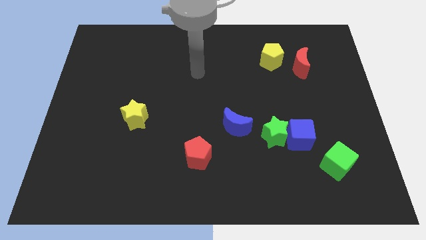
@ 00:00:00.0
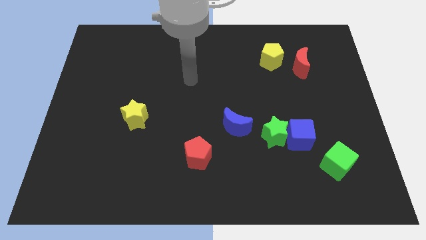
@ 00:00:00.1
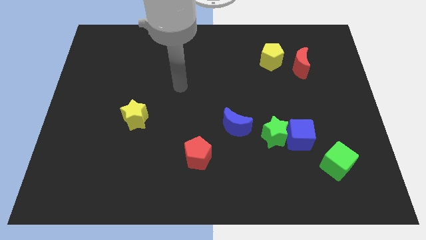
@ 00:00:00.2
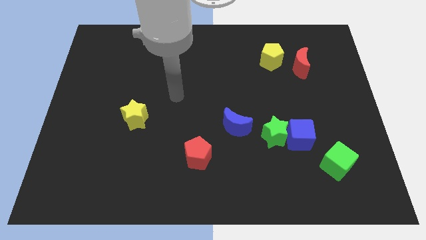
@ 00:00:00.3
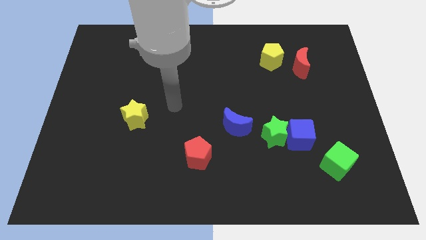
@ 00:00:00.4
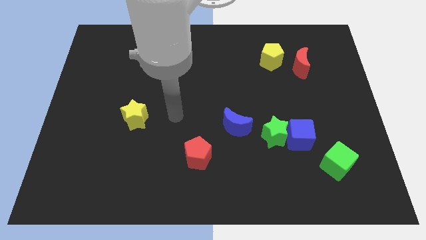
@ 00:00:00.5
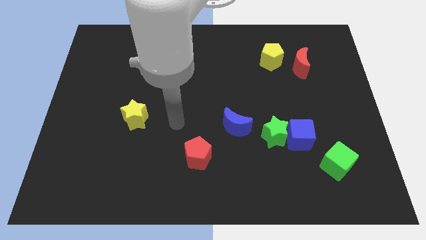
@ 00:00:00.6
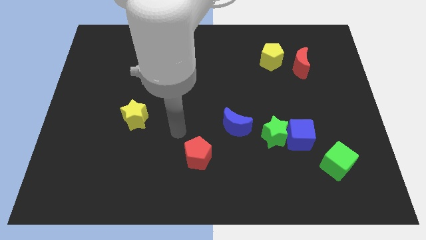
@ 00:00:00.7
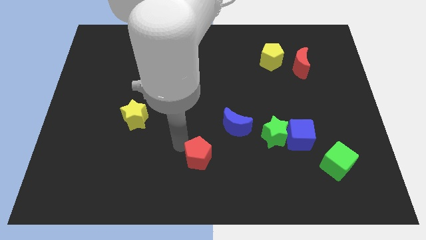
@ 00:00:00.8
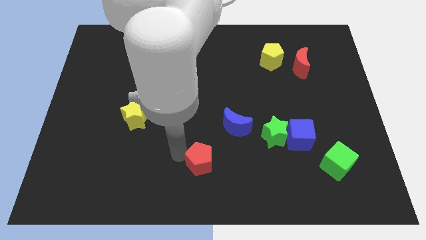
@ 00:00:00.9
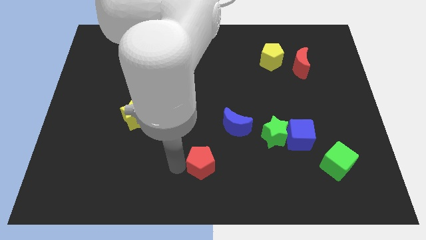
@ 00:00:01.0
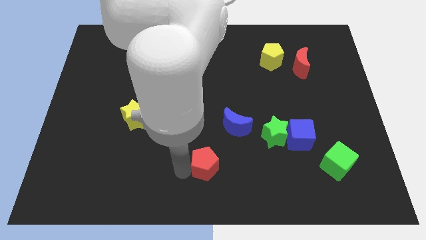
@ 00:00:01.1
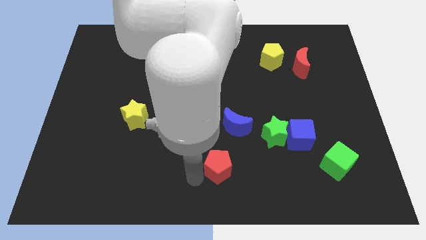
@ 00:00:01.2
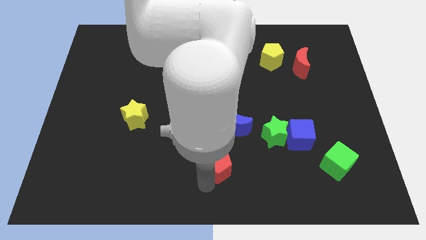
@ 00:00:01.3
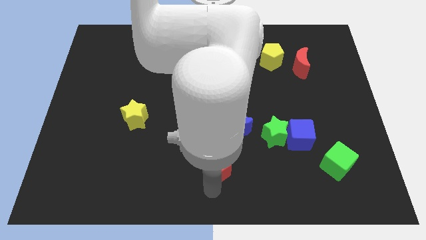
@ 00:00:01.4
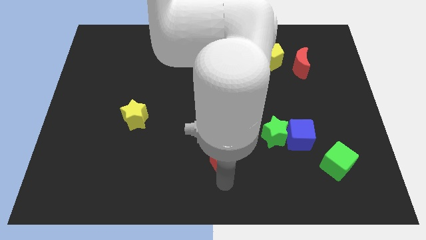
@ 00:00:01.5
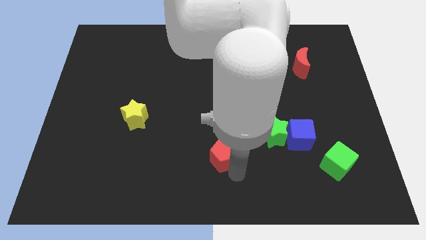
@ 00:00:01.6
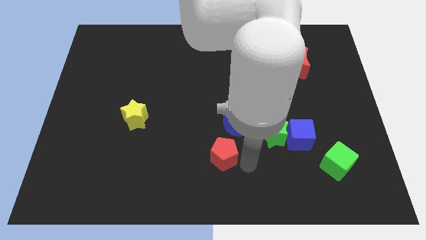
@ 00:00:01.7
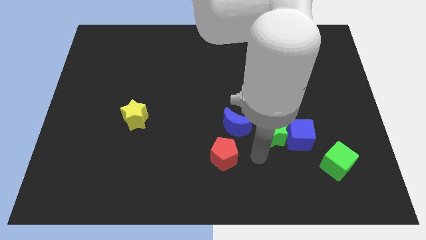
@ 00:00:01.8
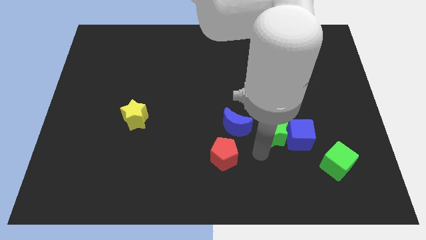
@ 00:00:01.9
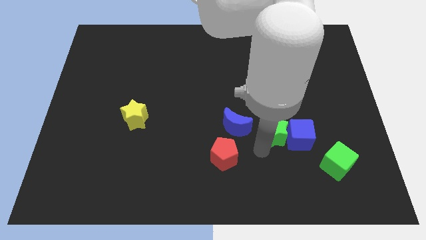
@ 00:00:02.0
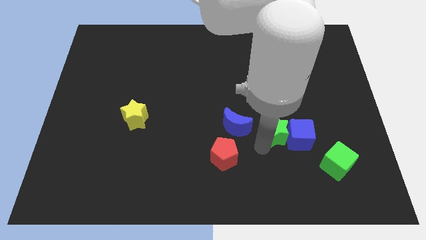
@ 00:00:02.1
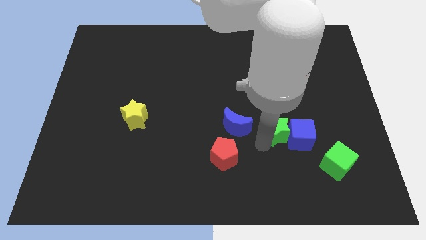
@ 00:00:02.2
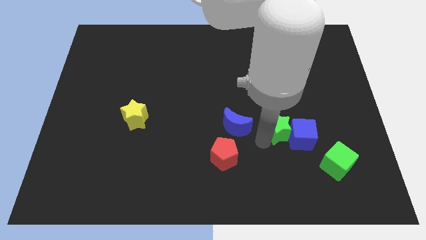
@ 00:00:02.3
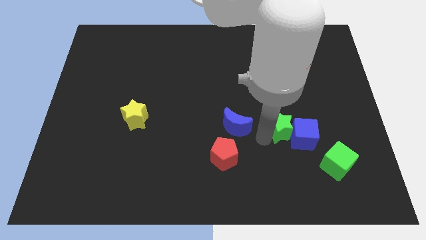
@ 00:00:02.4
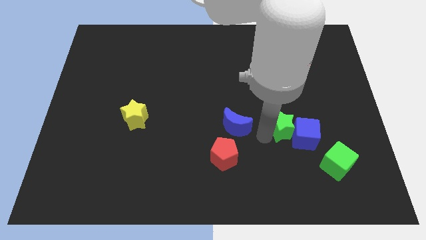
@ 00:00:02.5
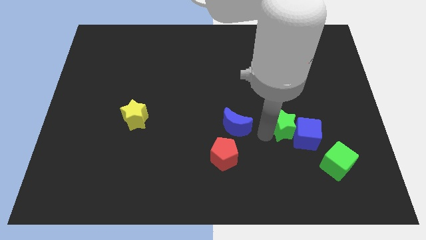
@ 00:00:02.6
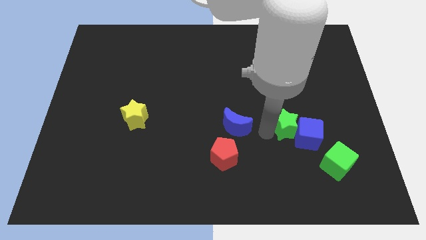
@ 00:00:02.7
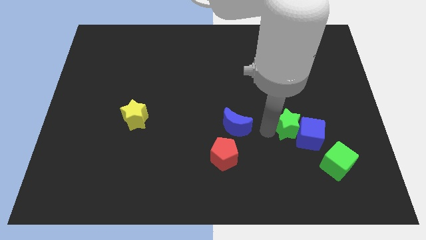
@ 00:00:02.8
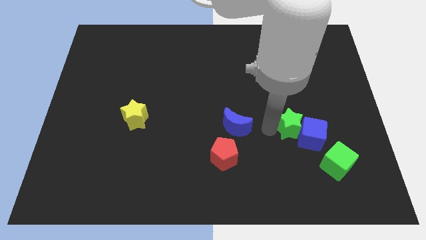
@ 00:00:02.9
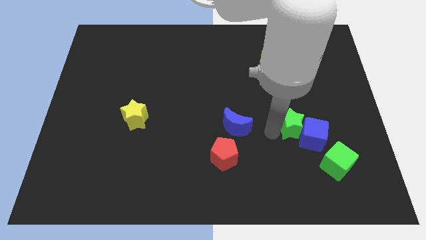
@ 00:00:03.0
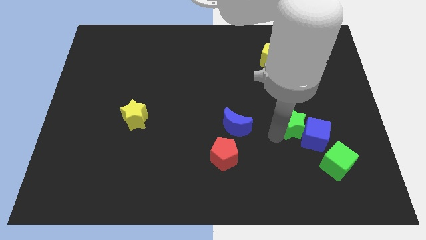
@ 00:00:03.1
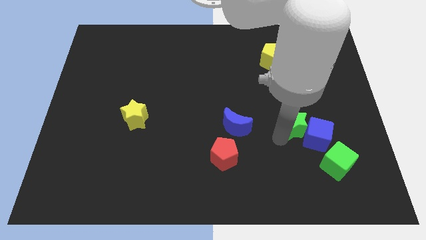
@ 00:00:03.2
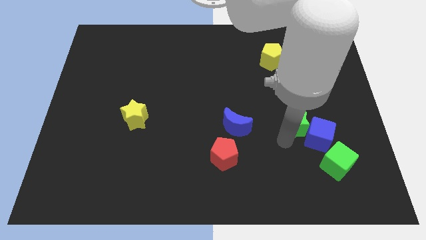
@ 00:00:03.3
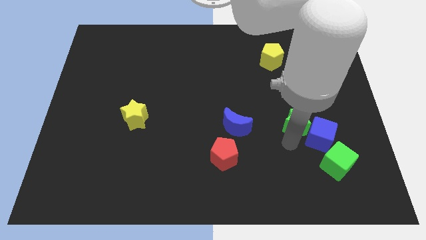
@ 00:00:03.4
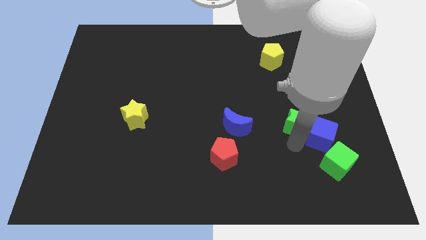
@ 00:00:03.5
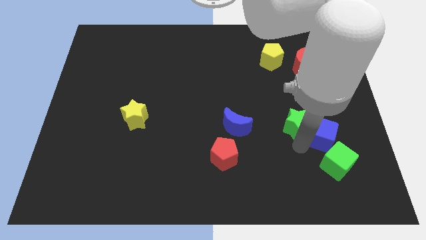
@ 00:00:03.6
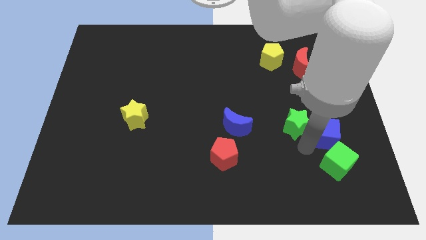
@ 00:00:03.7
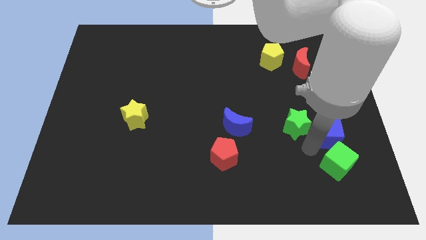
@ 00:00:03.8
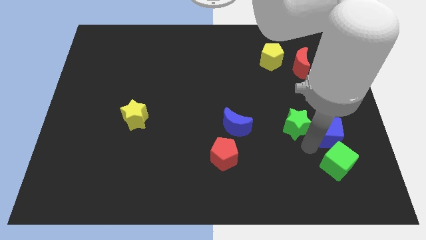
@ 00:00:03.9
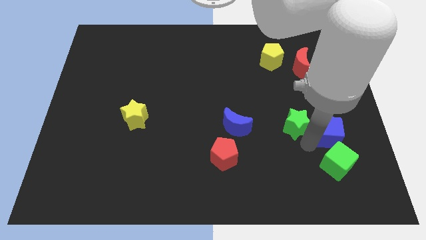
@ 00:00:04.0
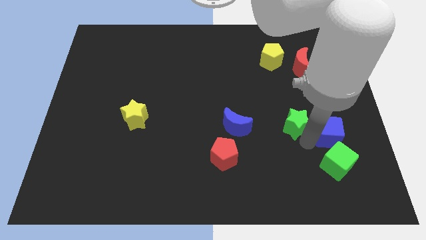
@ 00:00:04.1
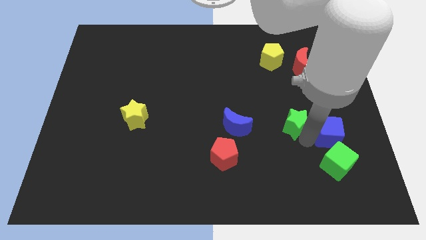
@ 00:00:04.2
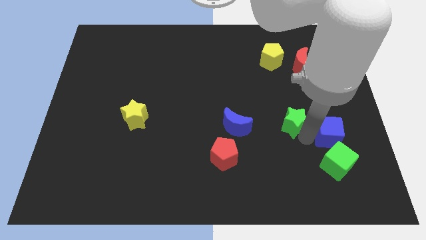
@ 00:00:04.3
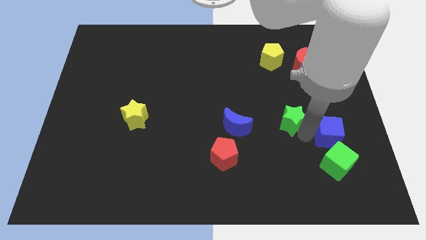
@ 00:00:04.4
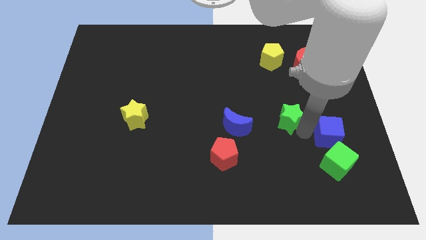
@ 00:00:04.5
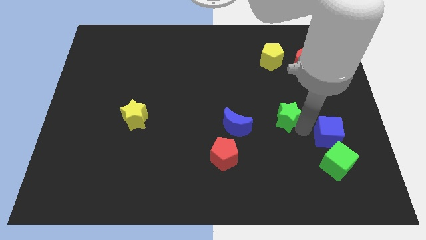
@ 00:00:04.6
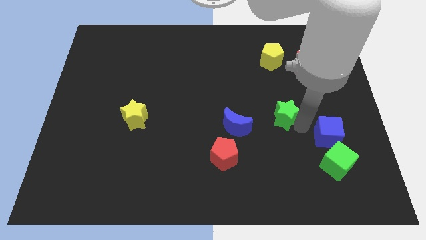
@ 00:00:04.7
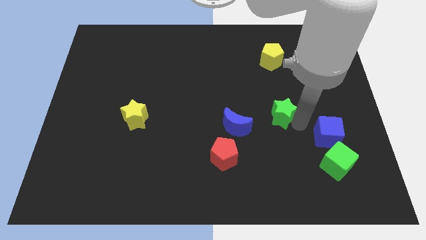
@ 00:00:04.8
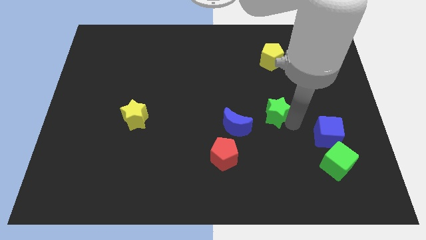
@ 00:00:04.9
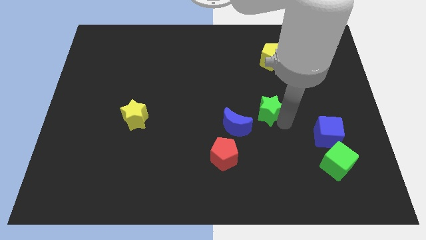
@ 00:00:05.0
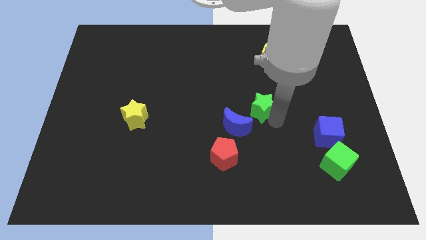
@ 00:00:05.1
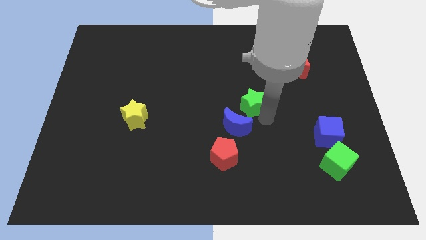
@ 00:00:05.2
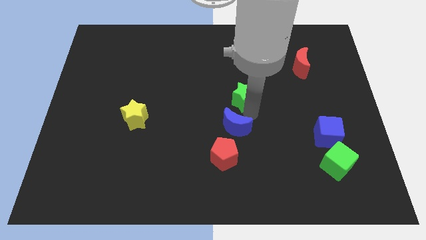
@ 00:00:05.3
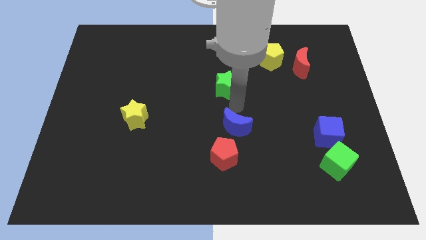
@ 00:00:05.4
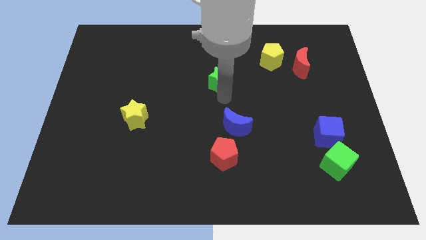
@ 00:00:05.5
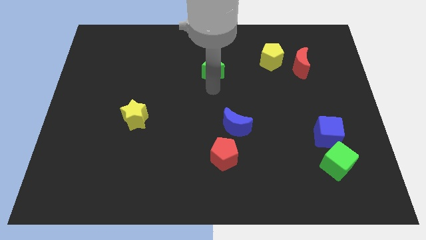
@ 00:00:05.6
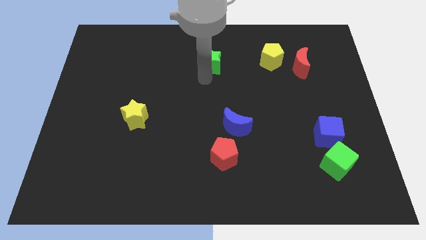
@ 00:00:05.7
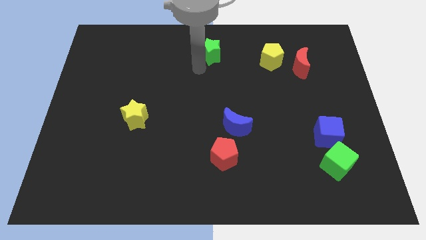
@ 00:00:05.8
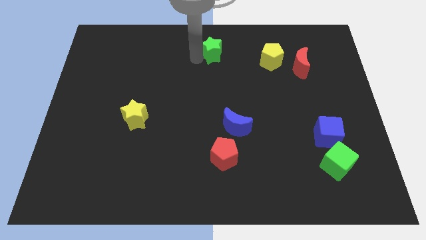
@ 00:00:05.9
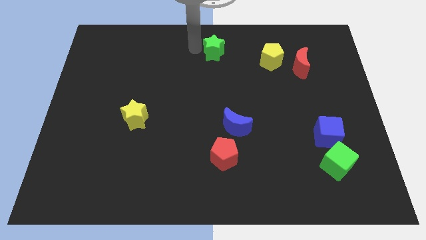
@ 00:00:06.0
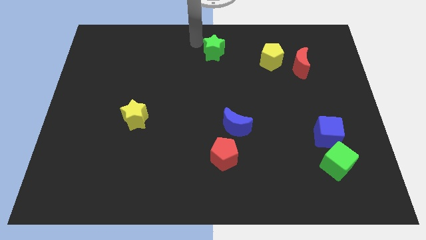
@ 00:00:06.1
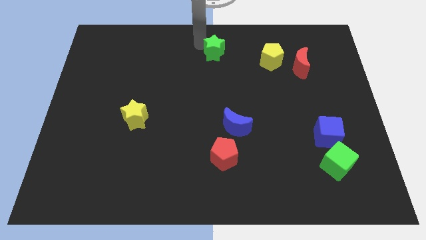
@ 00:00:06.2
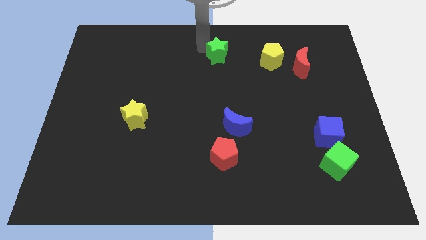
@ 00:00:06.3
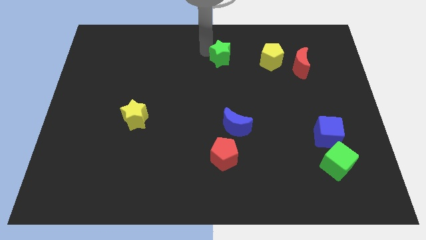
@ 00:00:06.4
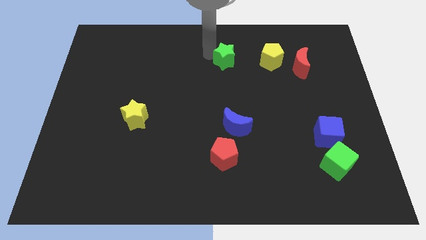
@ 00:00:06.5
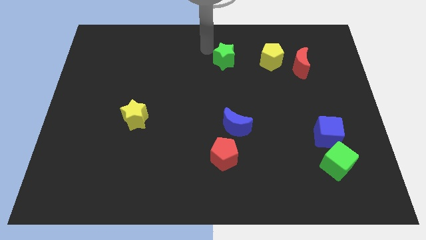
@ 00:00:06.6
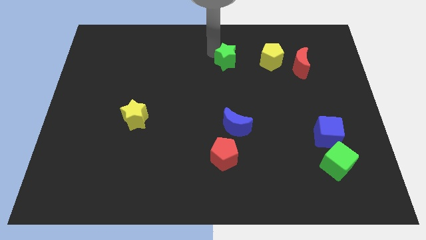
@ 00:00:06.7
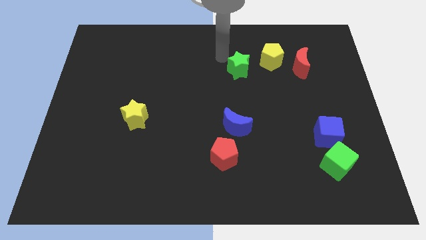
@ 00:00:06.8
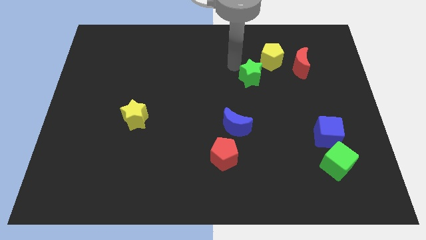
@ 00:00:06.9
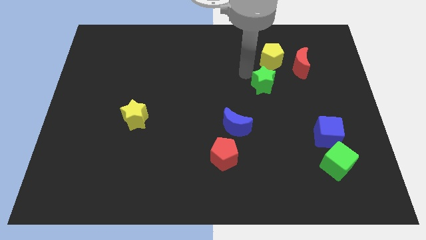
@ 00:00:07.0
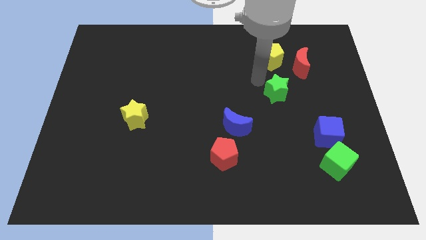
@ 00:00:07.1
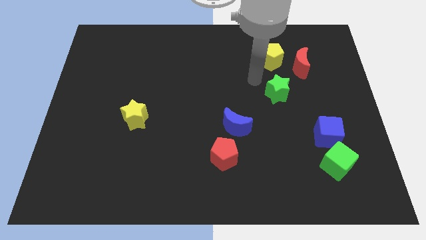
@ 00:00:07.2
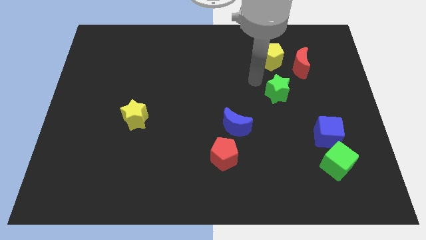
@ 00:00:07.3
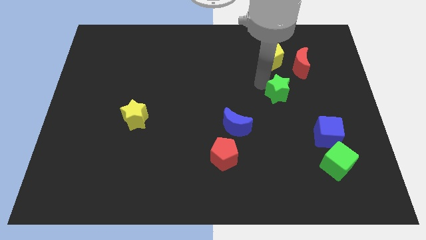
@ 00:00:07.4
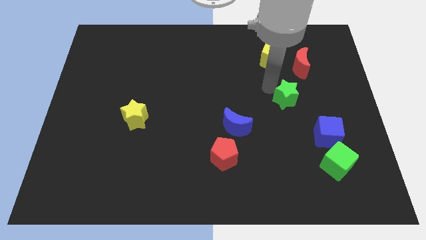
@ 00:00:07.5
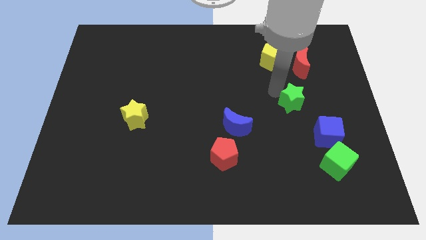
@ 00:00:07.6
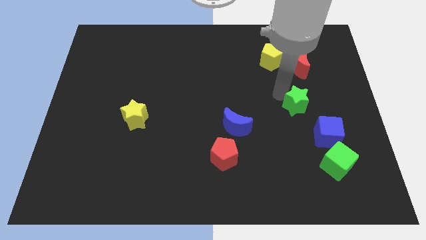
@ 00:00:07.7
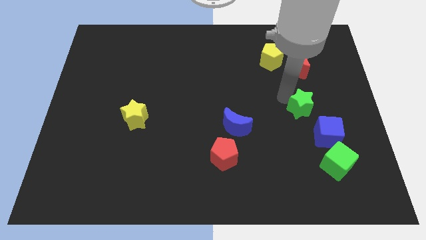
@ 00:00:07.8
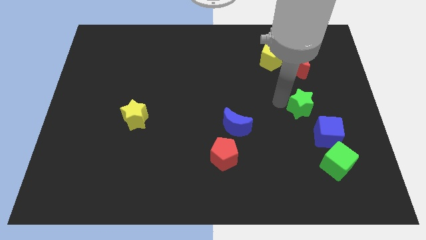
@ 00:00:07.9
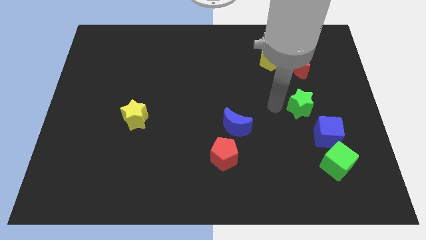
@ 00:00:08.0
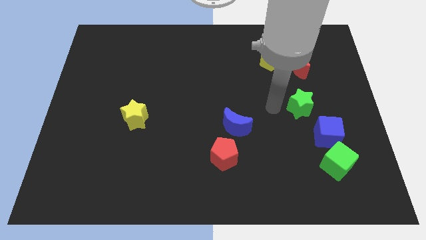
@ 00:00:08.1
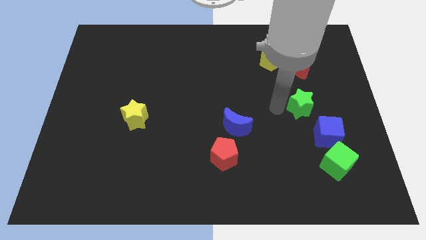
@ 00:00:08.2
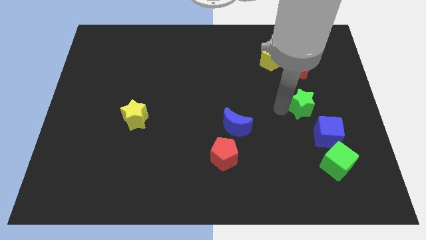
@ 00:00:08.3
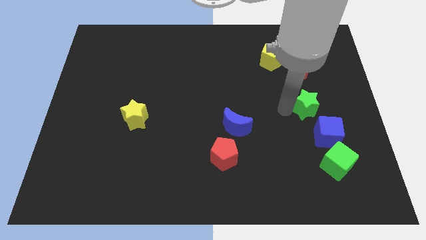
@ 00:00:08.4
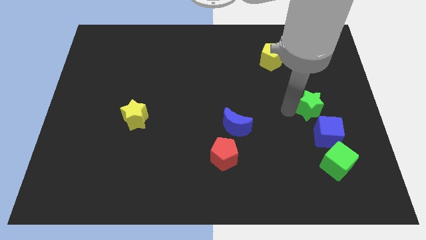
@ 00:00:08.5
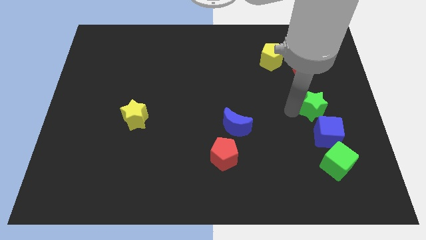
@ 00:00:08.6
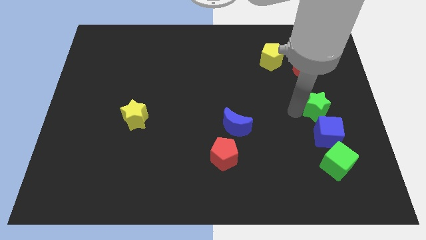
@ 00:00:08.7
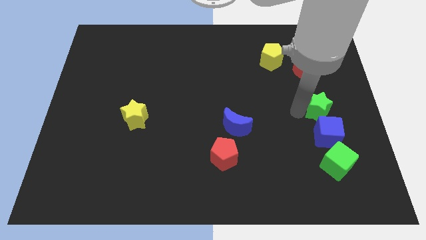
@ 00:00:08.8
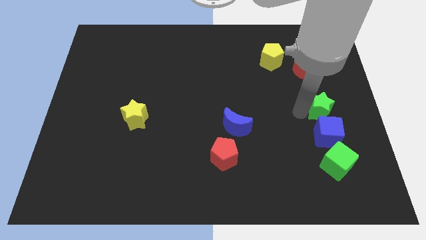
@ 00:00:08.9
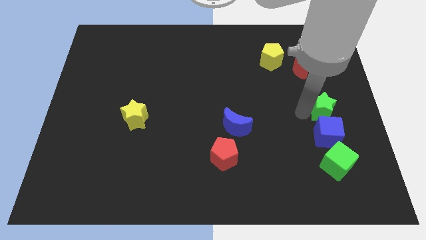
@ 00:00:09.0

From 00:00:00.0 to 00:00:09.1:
put the green star to the right side of the board
